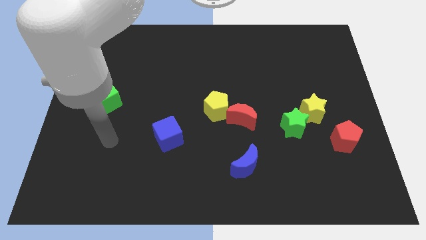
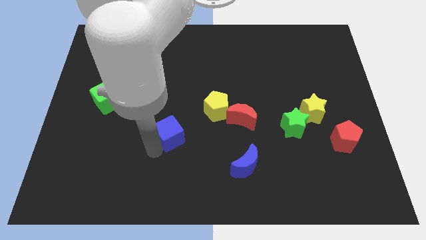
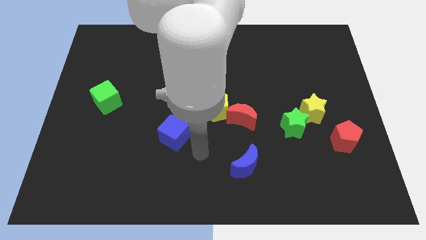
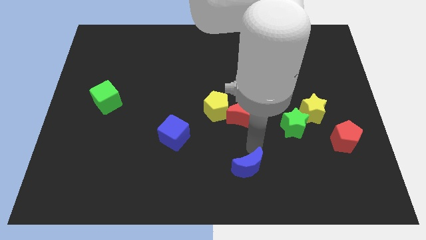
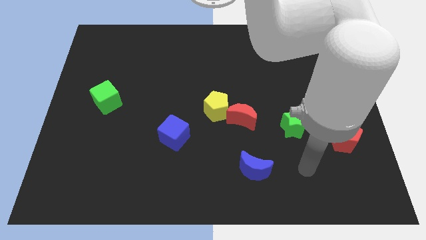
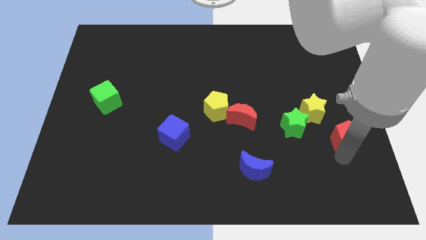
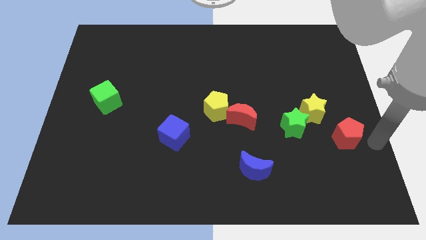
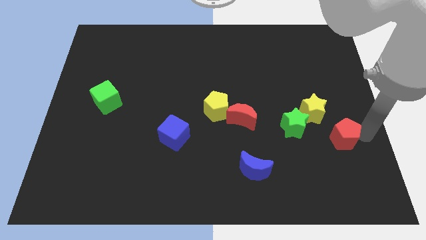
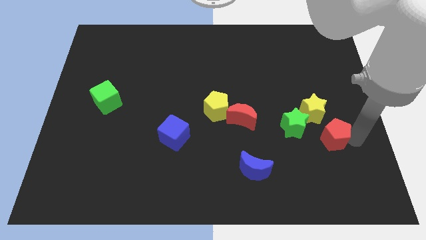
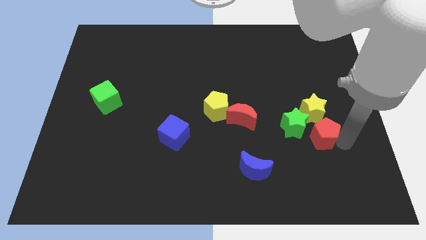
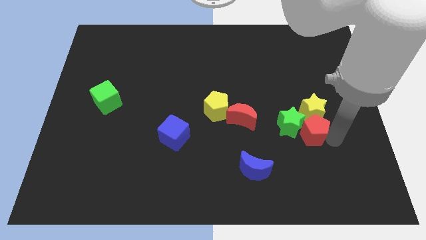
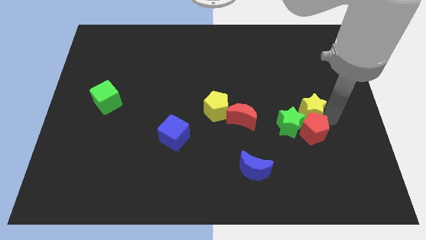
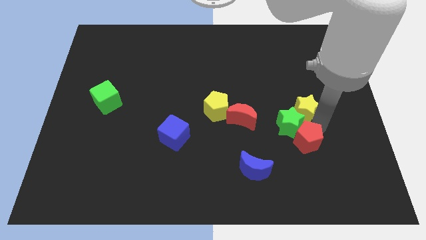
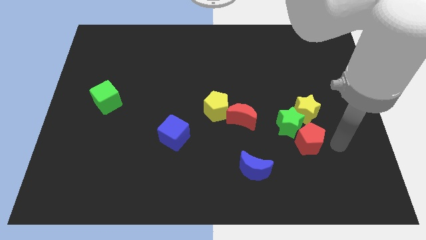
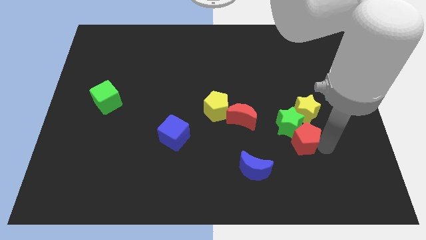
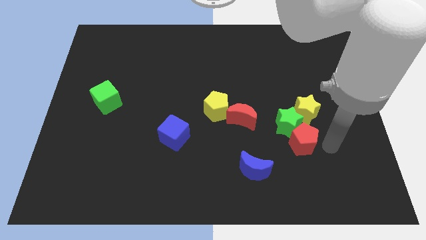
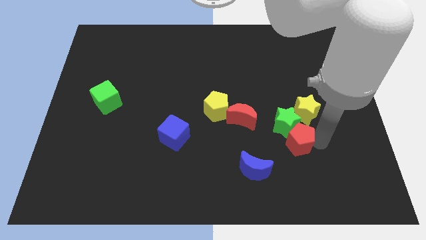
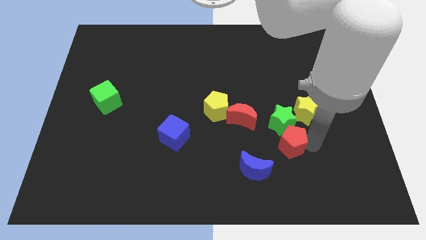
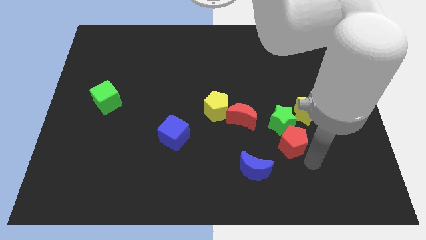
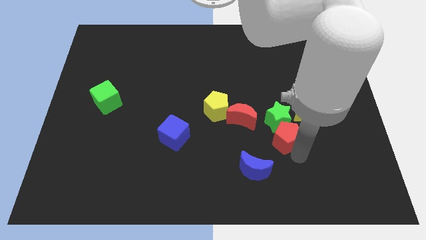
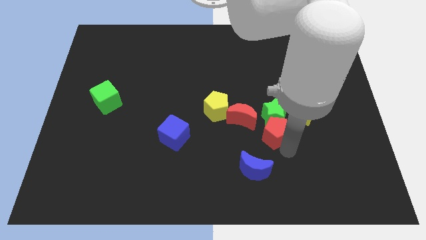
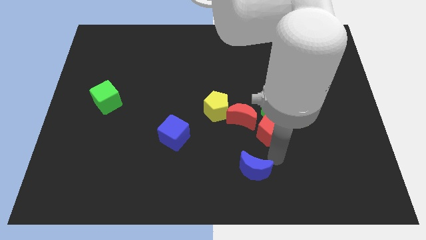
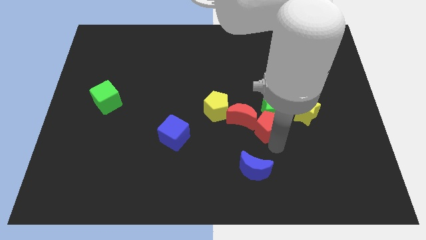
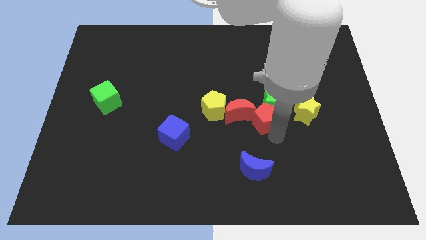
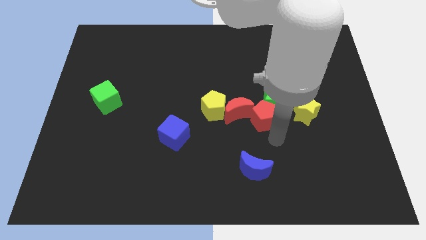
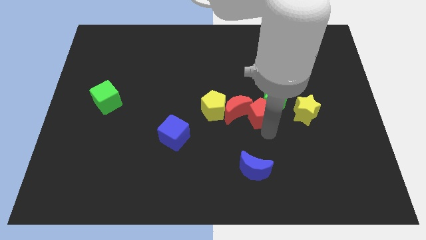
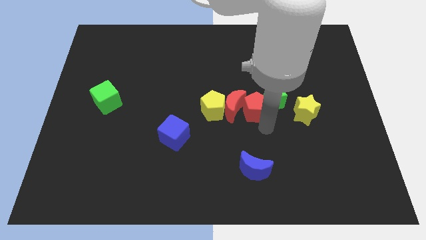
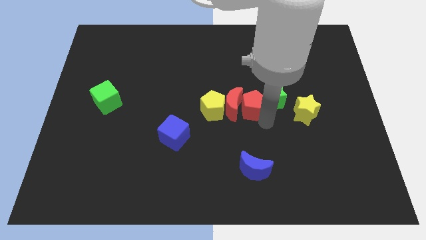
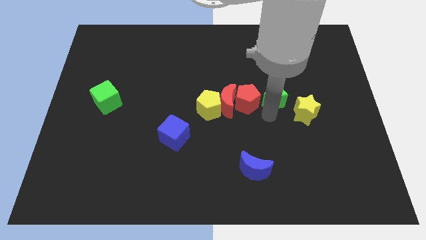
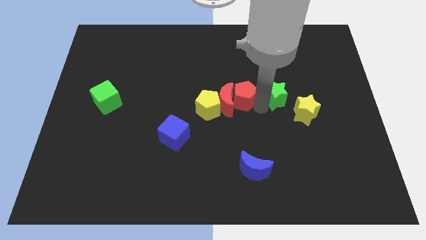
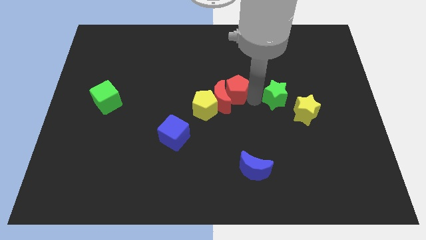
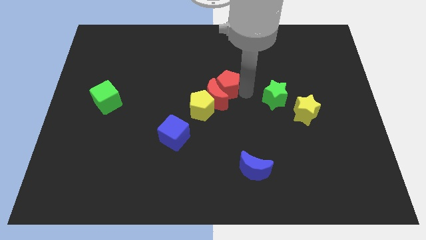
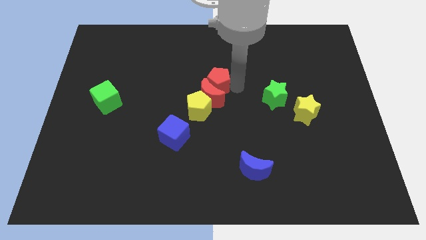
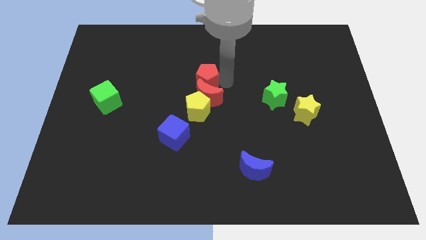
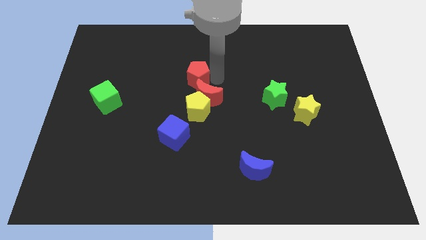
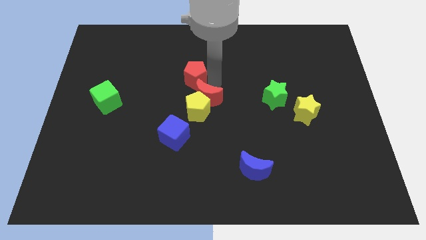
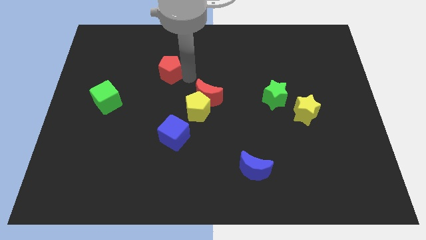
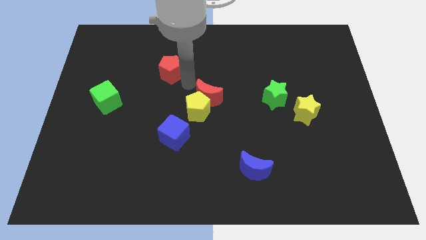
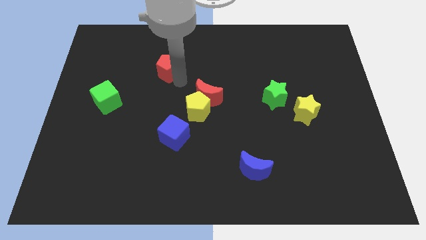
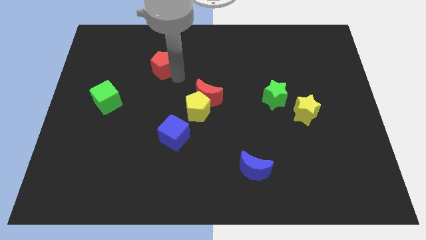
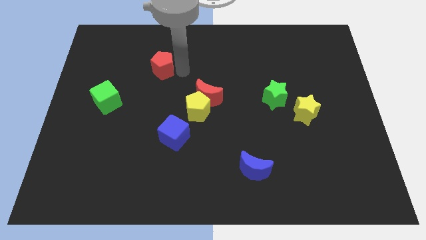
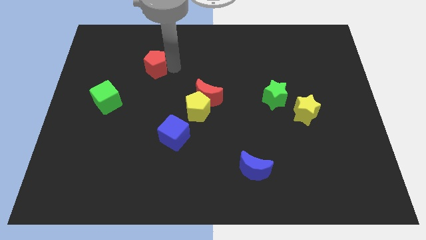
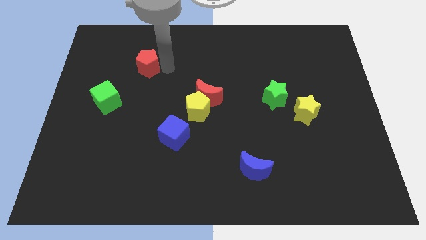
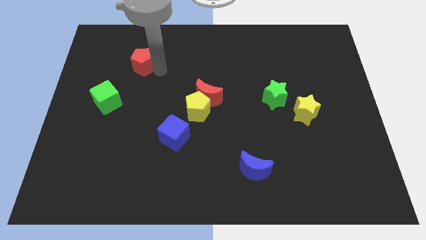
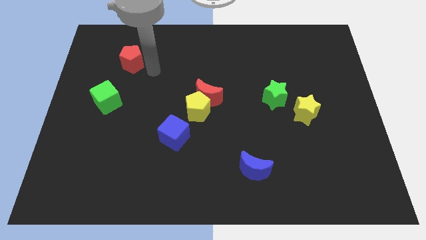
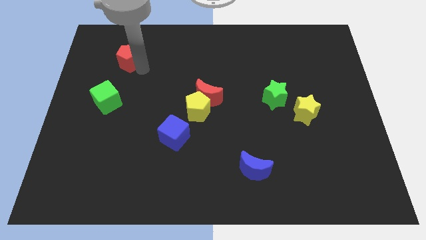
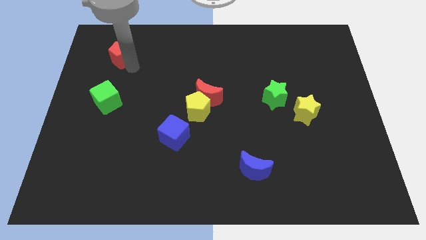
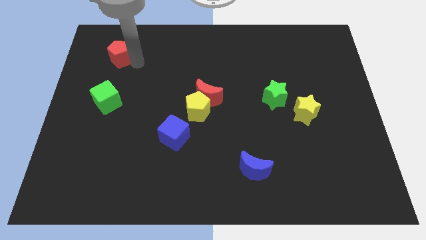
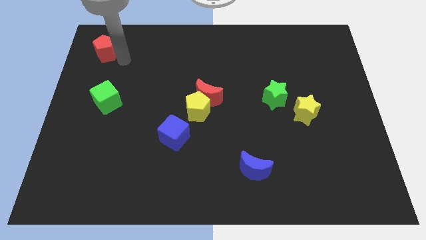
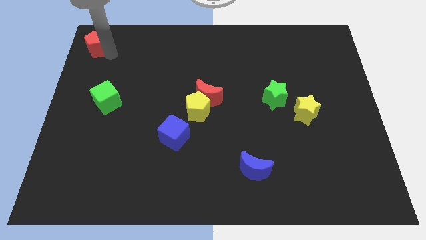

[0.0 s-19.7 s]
slide the red pentagon to the top left corner

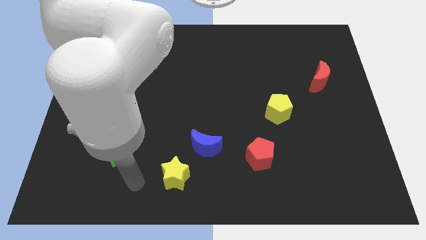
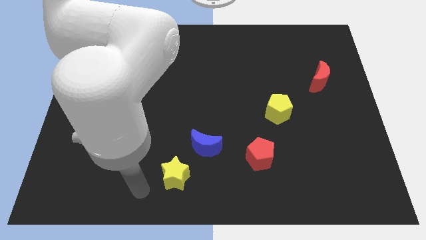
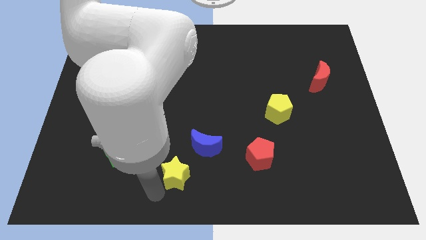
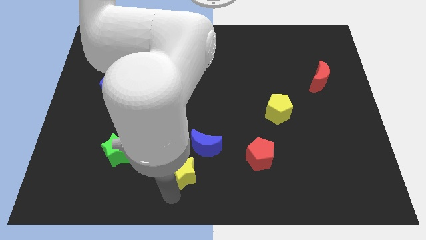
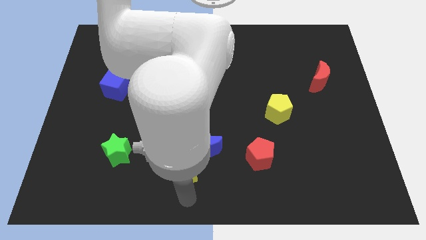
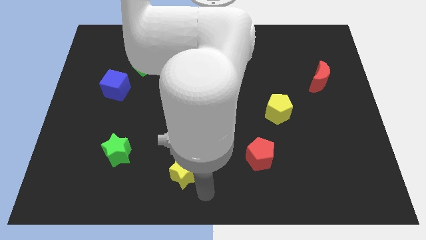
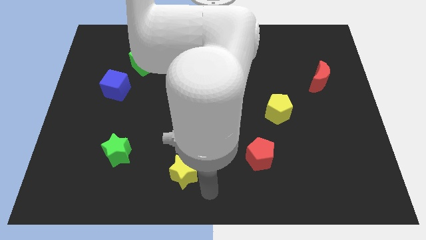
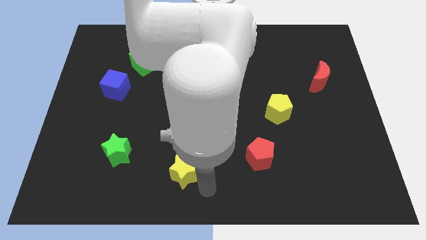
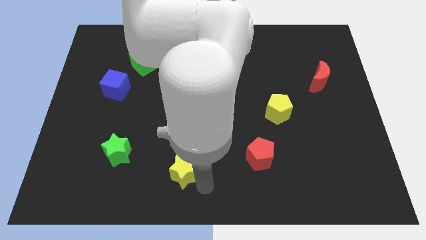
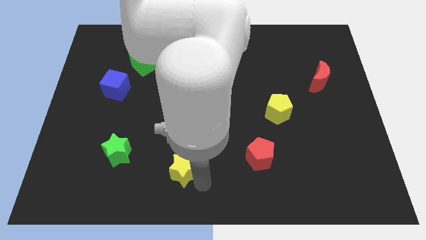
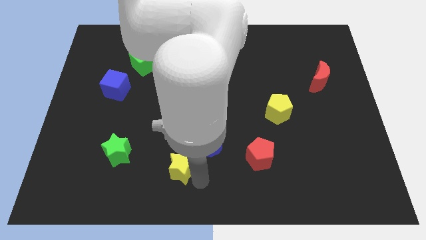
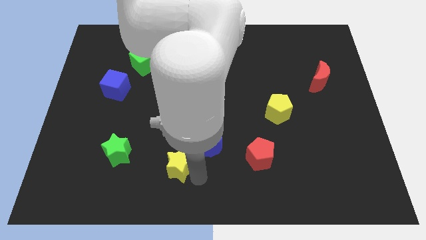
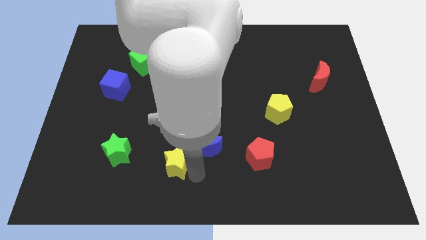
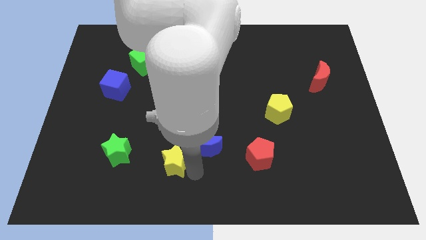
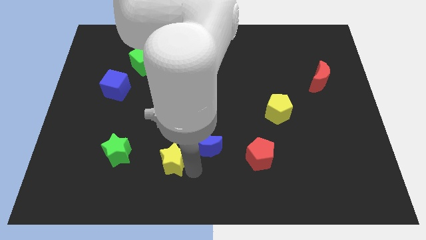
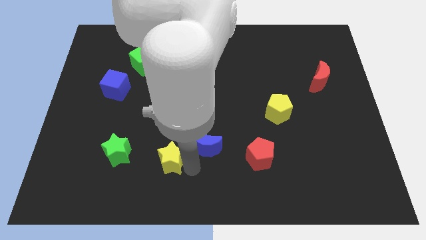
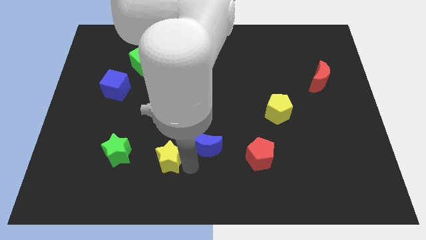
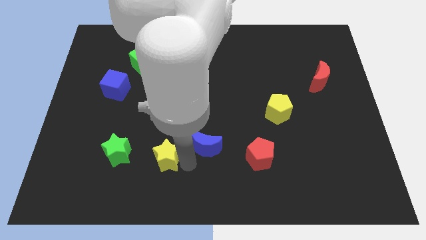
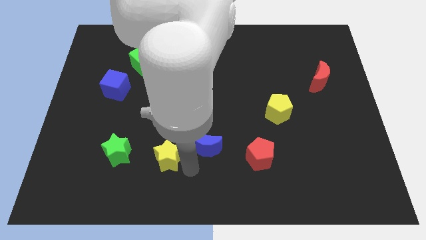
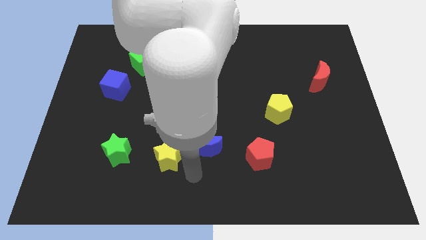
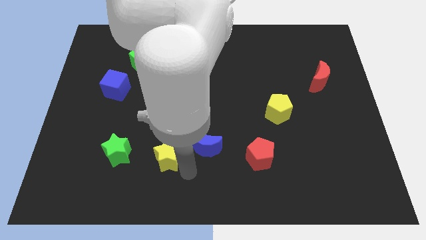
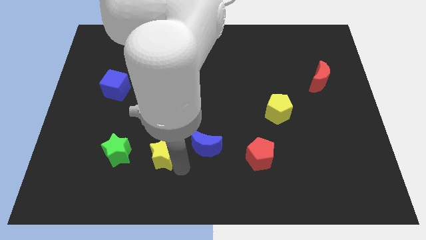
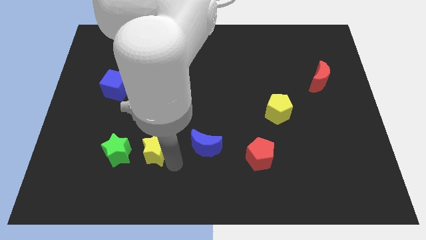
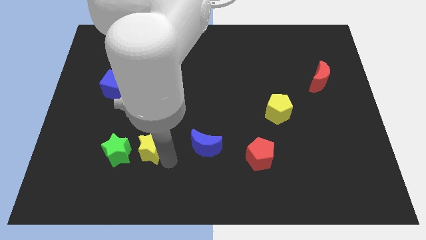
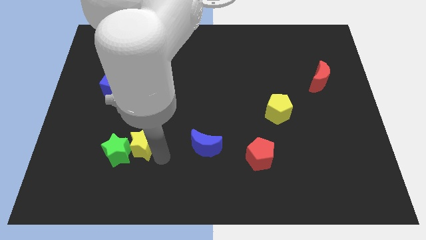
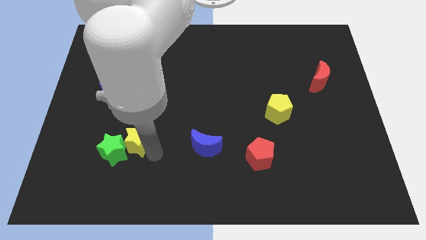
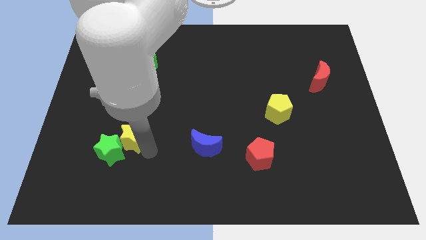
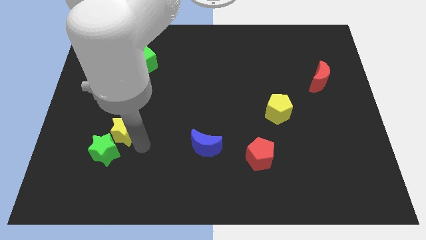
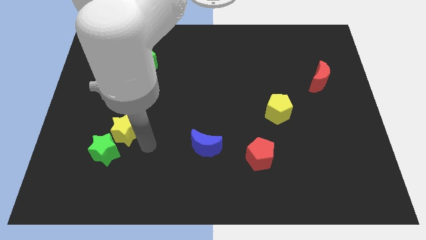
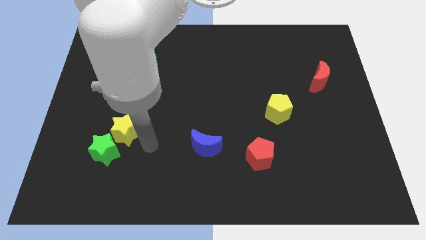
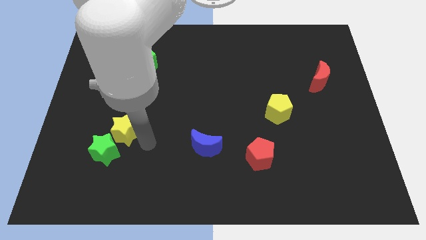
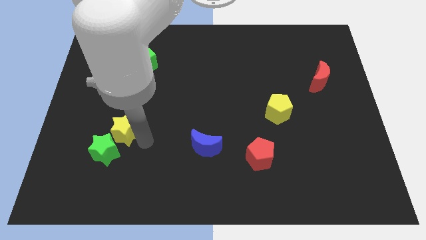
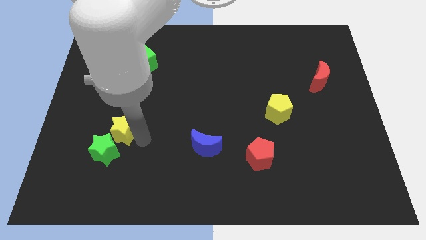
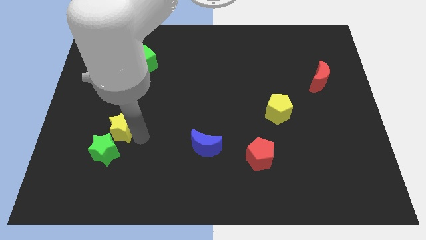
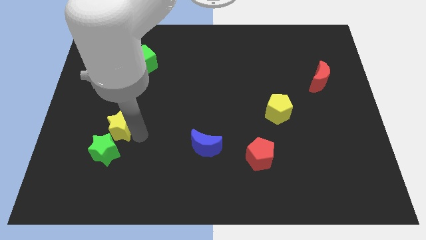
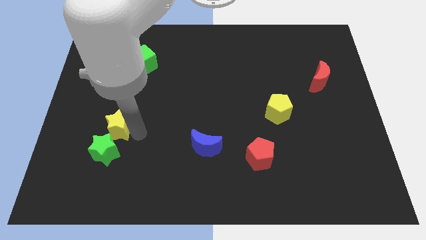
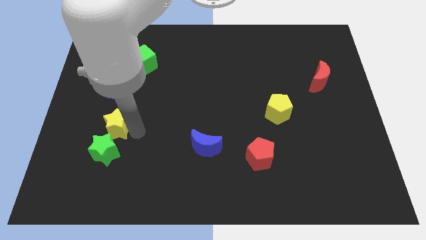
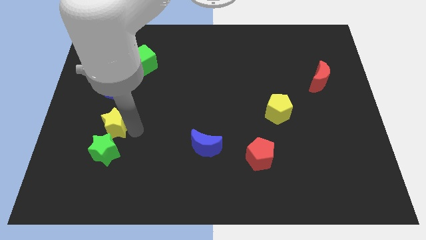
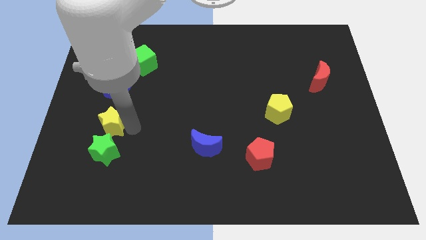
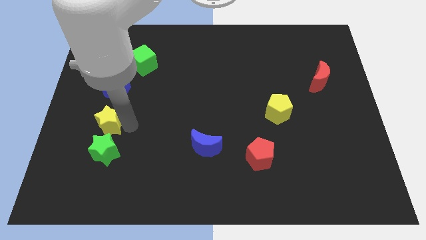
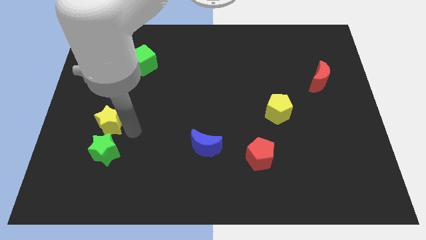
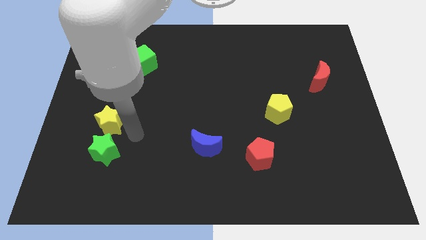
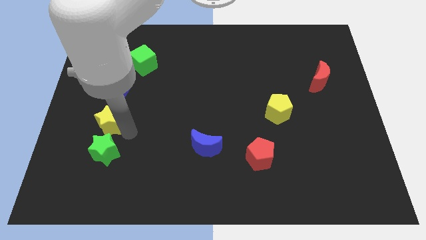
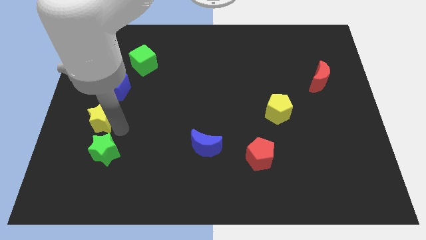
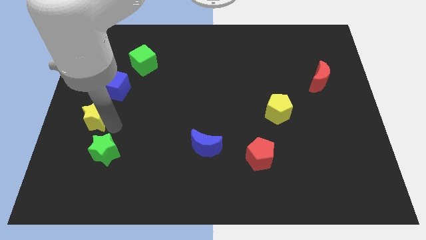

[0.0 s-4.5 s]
push the yellow star to the center left
